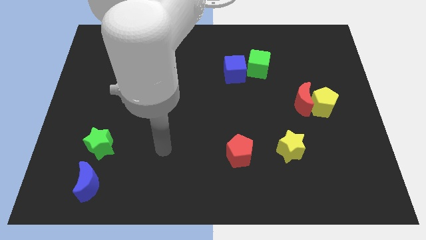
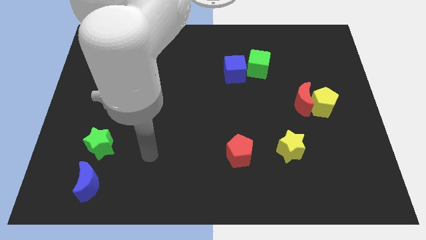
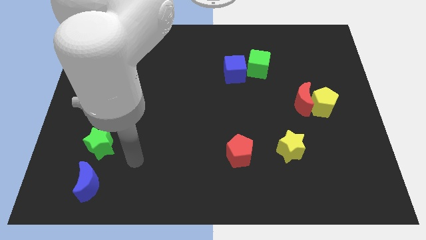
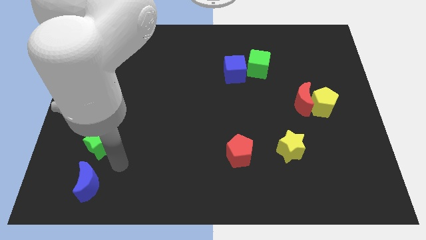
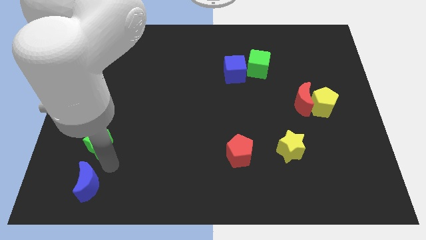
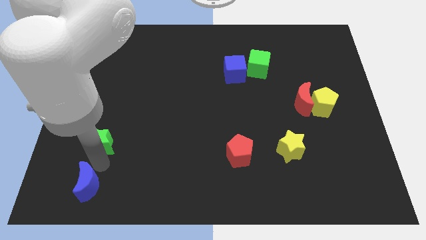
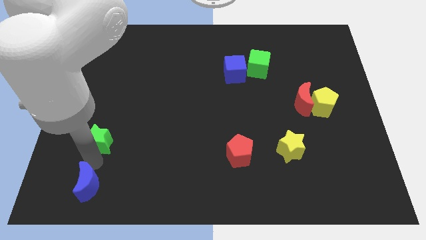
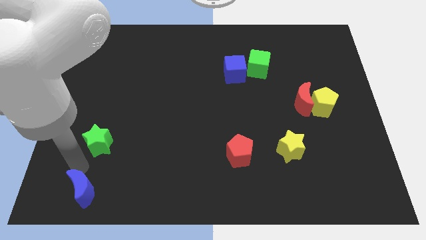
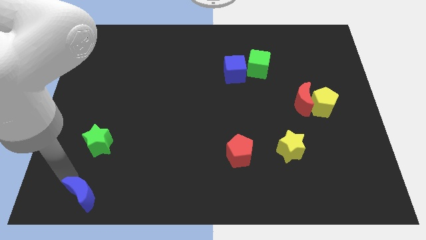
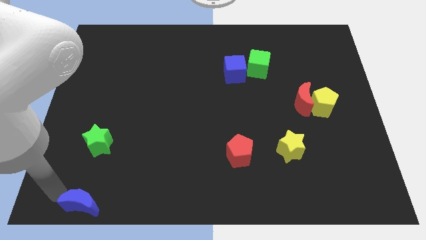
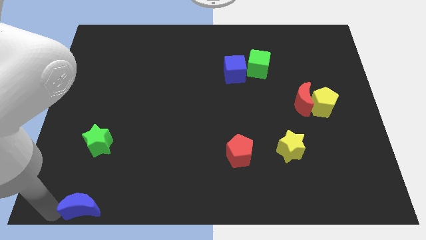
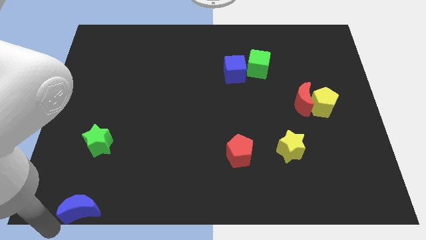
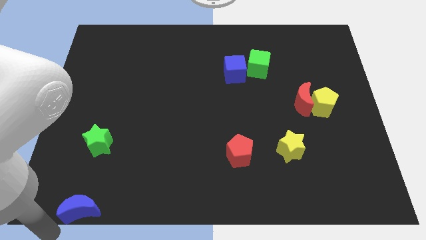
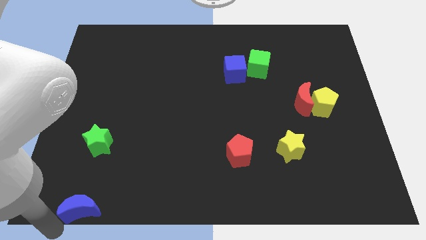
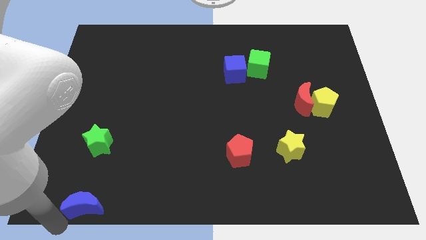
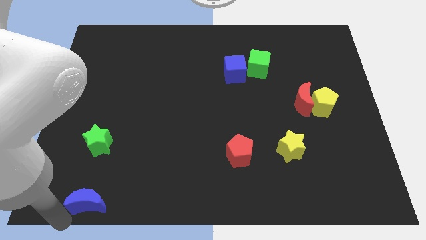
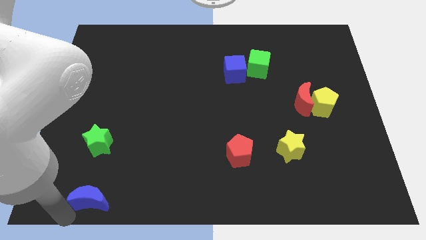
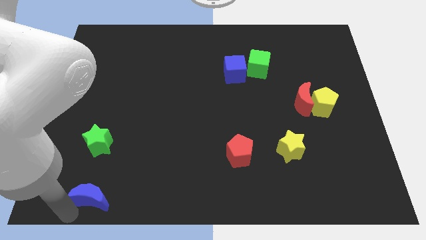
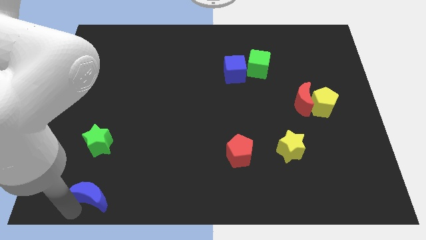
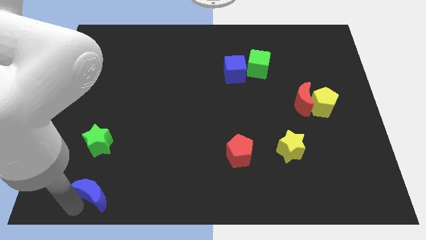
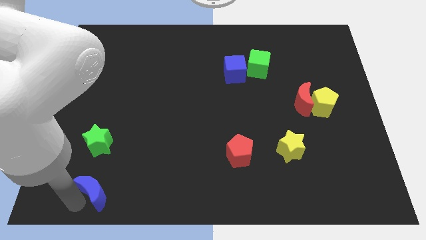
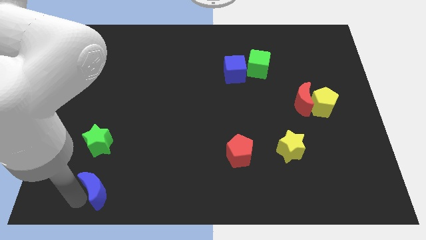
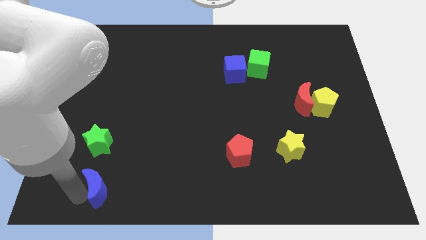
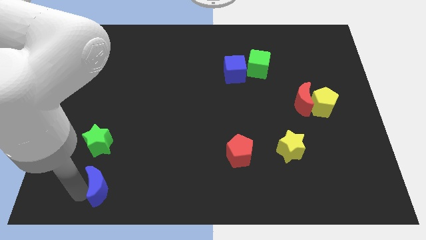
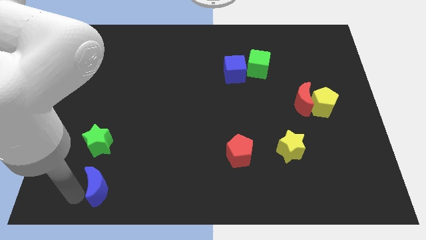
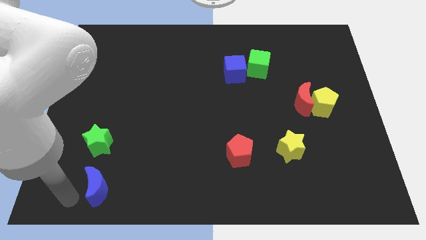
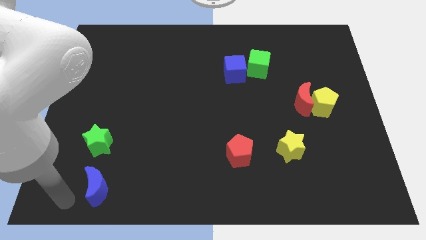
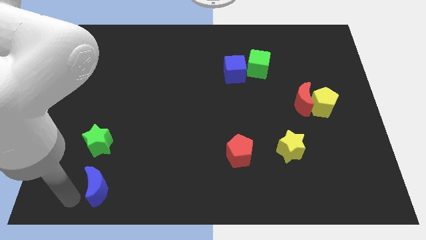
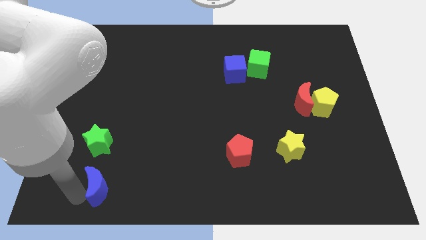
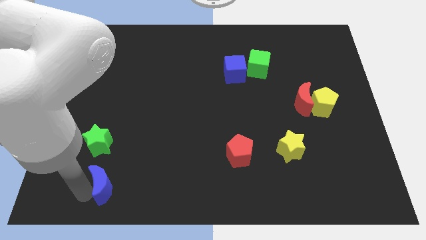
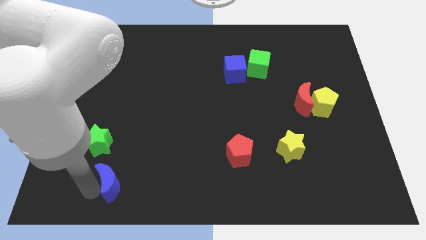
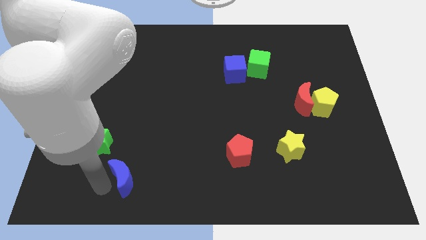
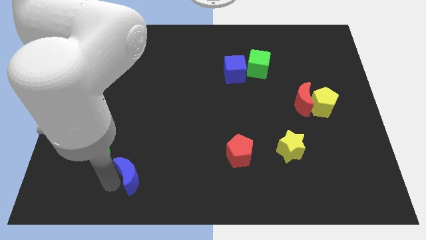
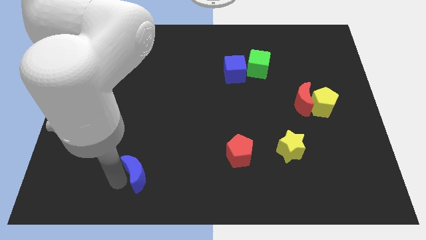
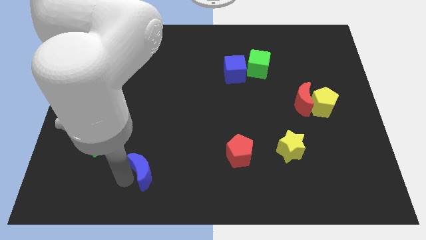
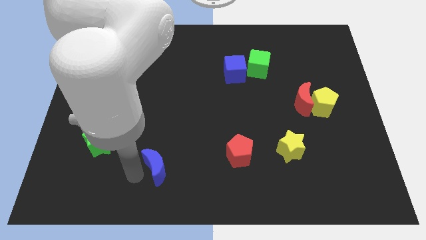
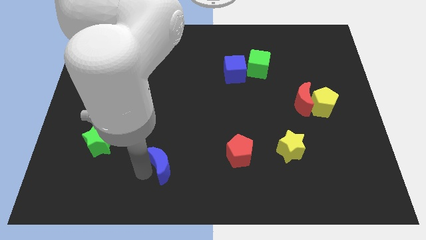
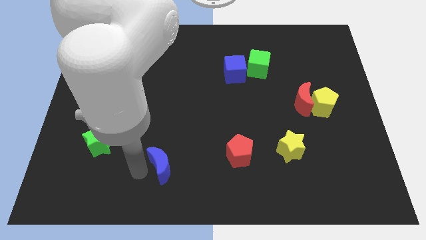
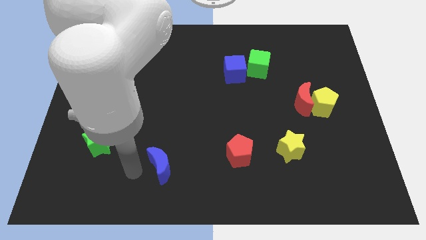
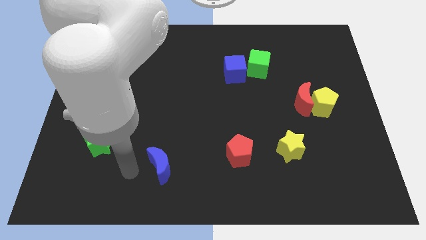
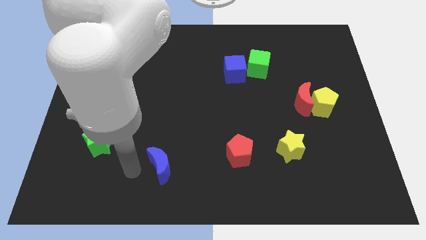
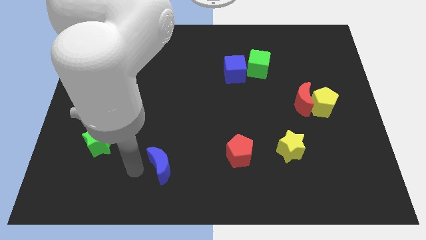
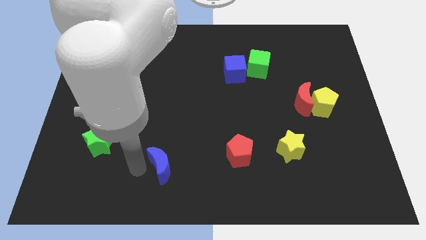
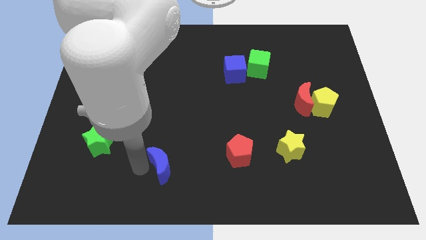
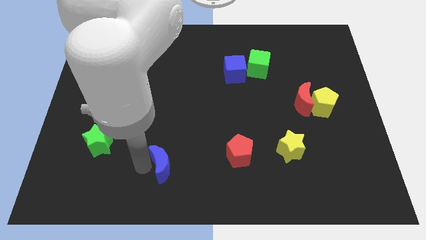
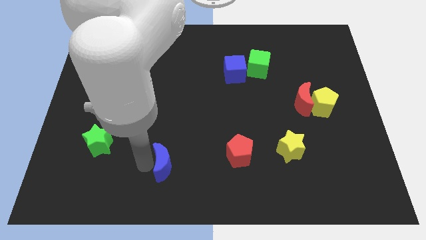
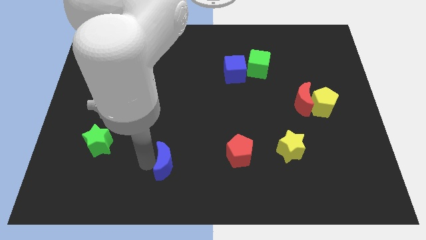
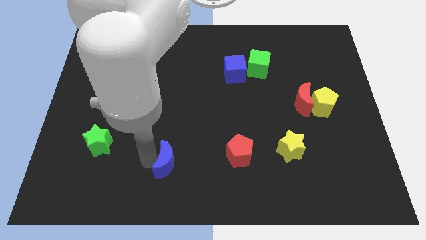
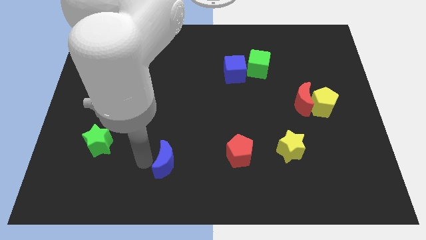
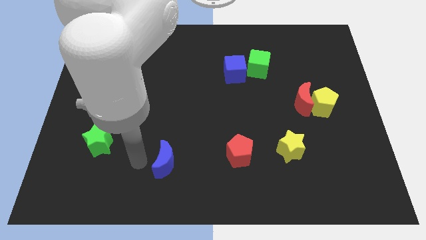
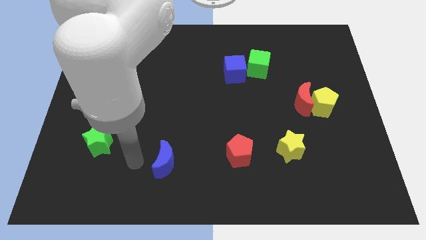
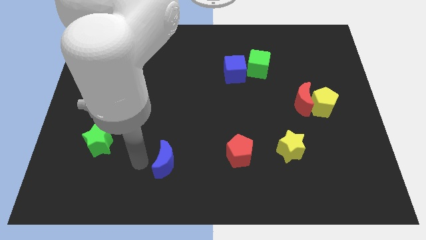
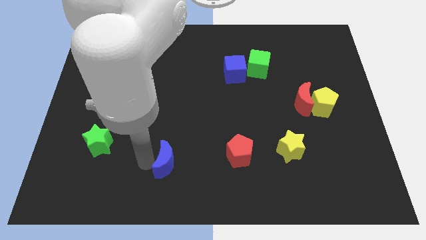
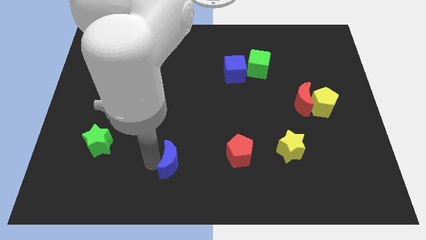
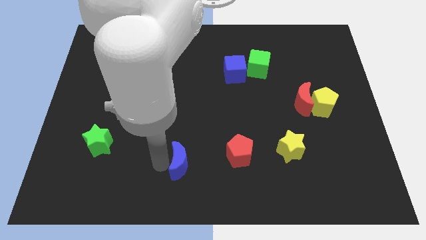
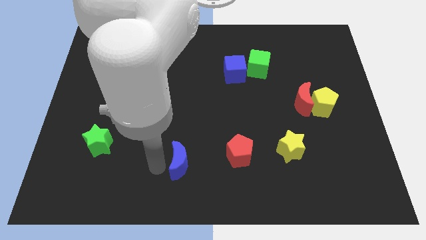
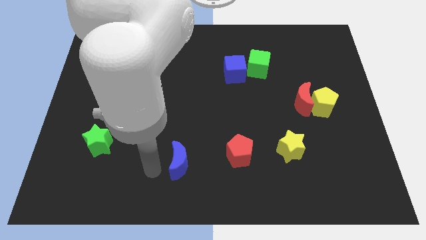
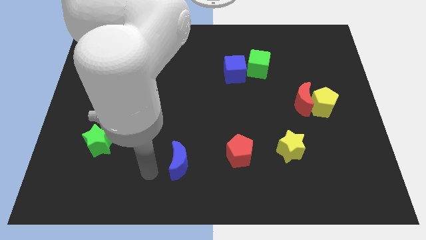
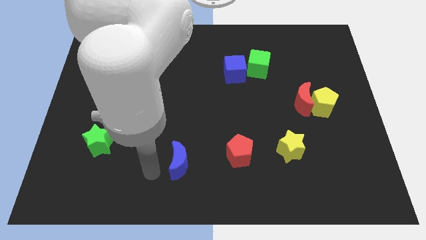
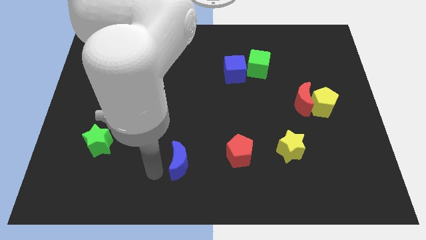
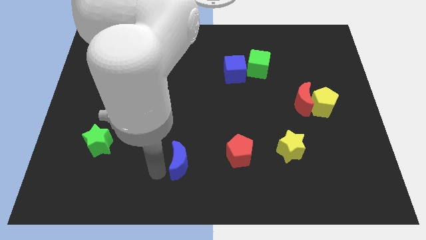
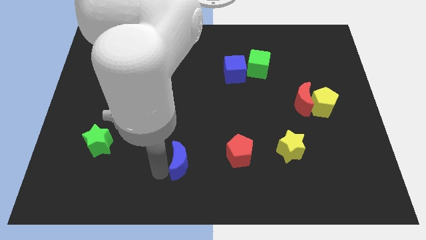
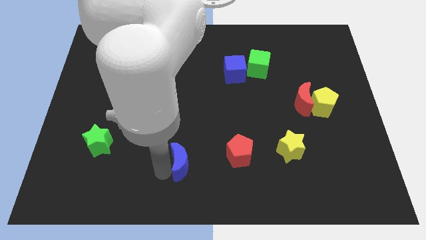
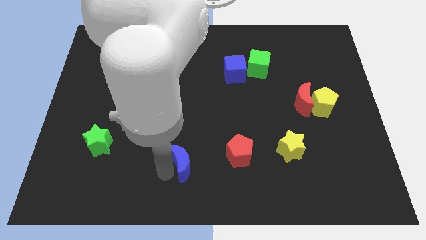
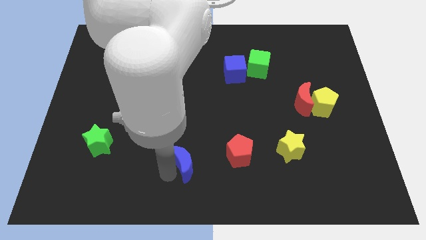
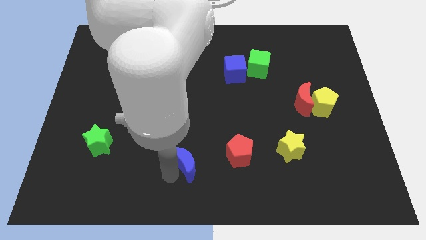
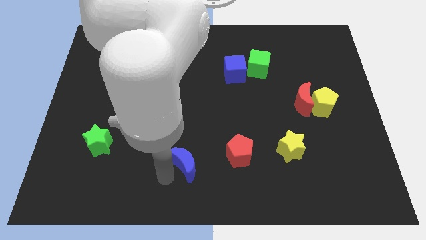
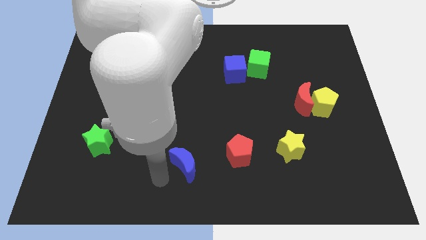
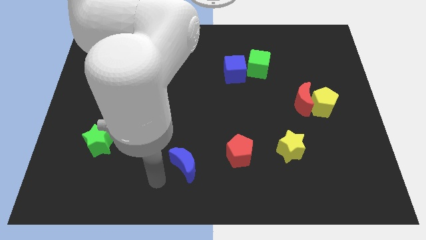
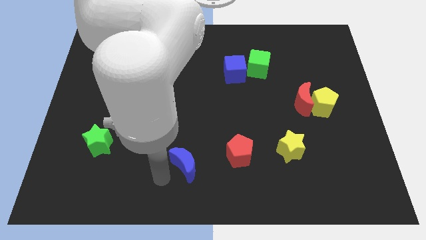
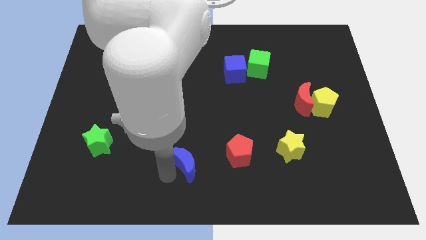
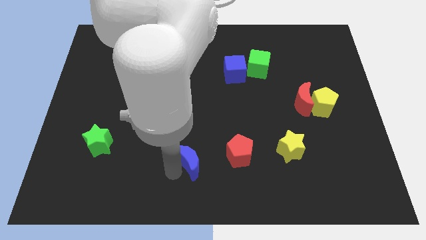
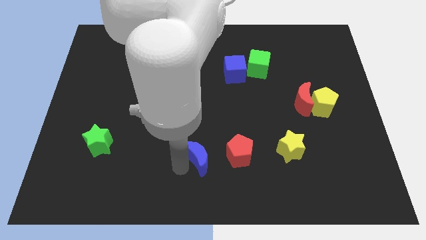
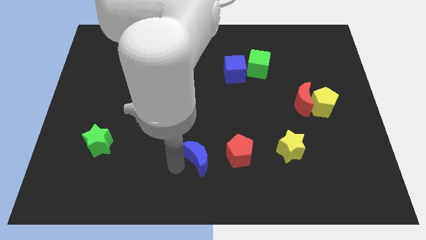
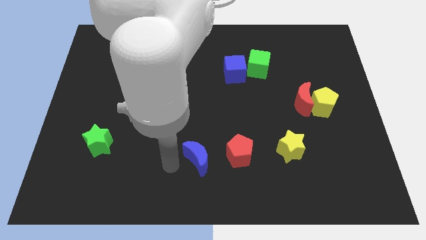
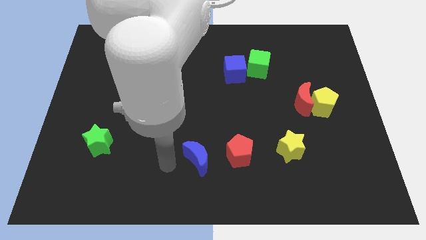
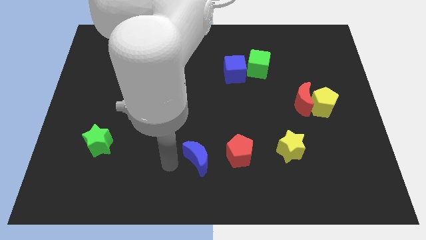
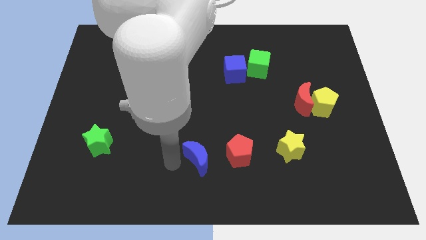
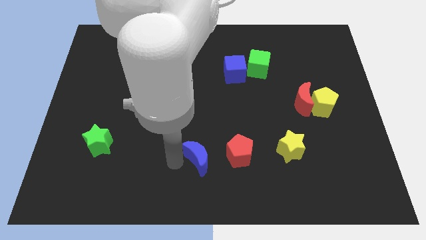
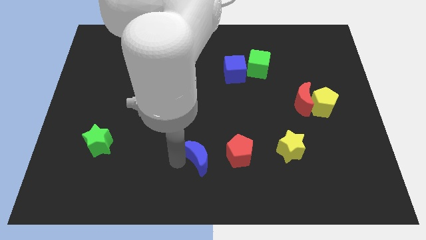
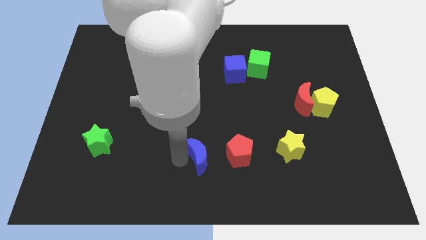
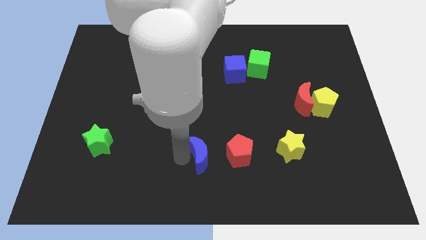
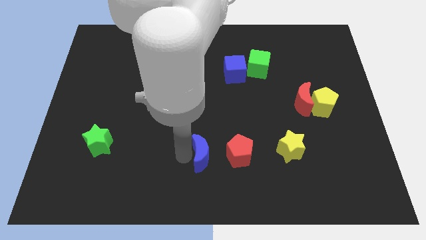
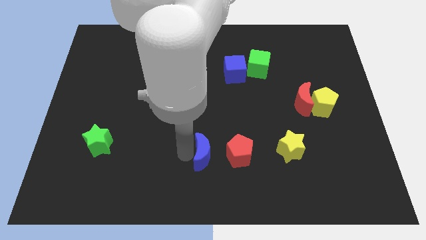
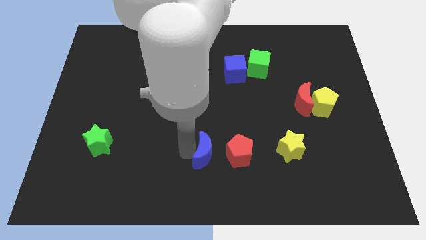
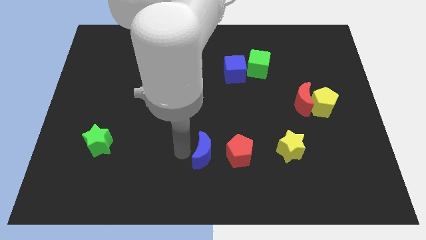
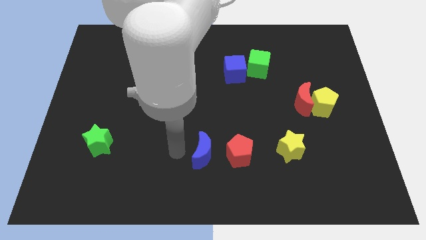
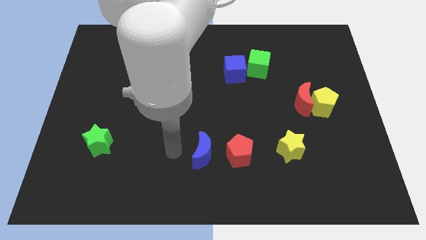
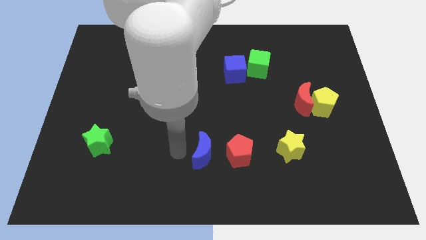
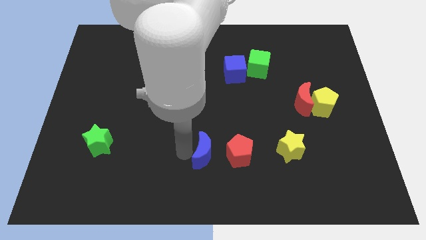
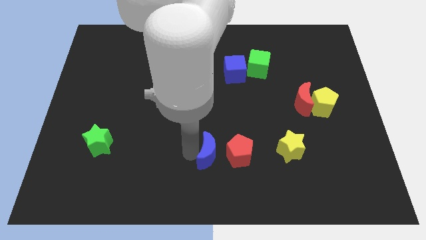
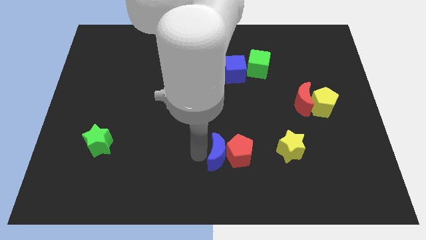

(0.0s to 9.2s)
push the blue moon to the red pentagon
